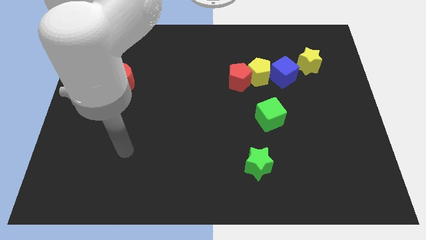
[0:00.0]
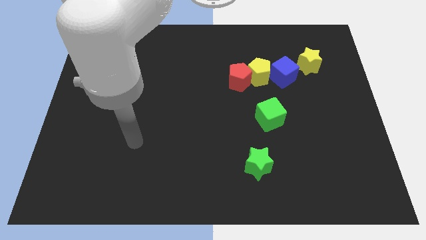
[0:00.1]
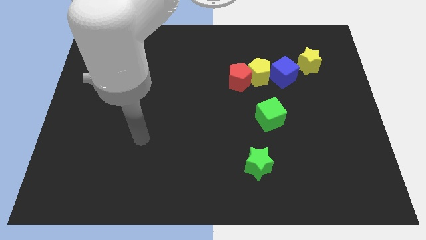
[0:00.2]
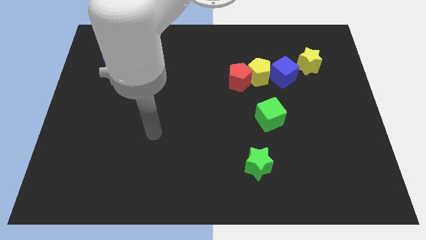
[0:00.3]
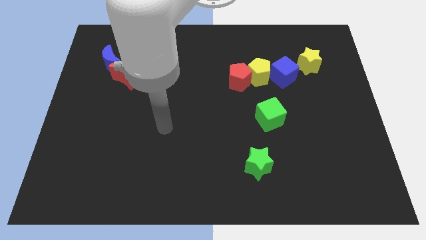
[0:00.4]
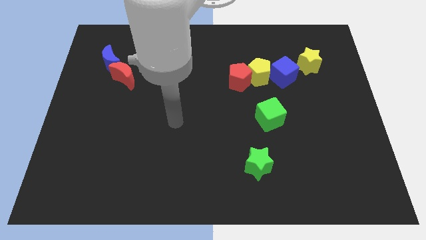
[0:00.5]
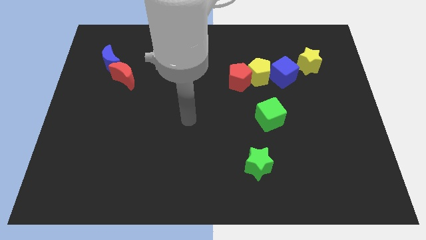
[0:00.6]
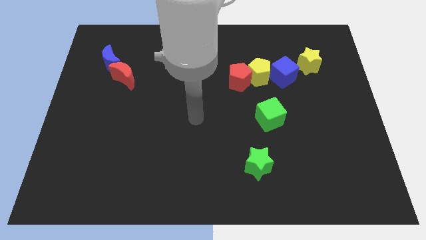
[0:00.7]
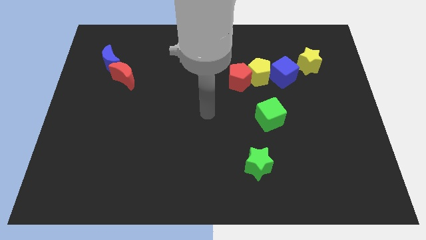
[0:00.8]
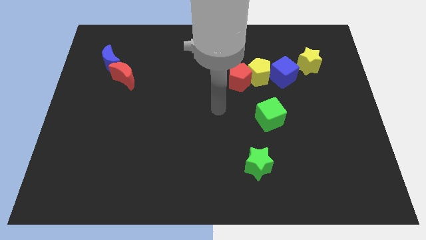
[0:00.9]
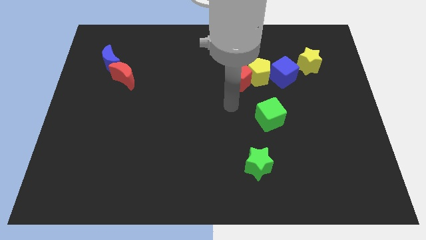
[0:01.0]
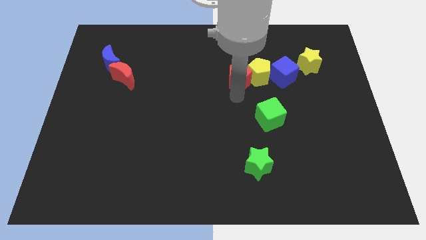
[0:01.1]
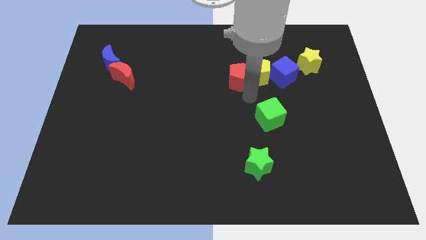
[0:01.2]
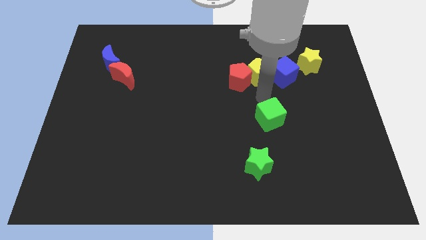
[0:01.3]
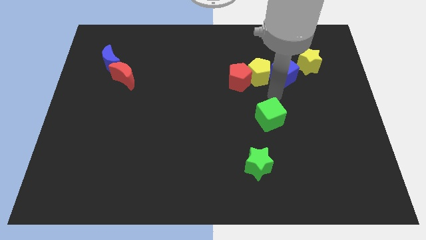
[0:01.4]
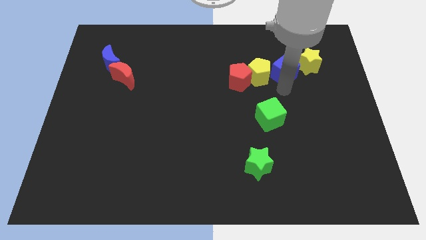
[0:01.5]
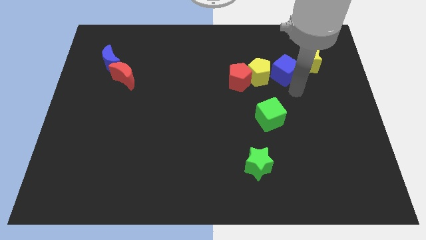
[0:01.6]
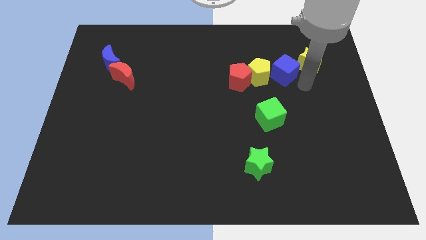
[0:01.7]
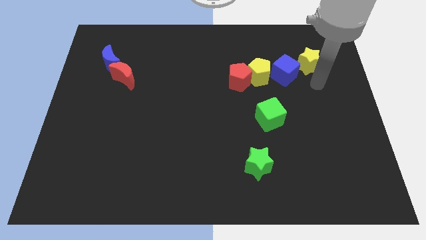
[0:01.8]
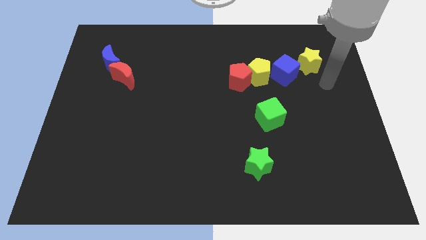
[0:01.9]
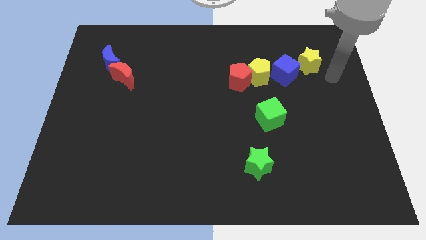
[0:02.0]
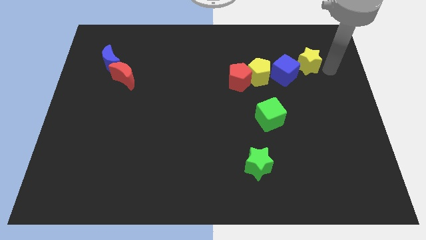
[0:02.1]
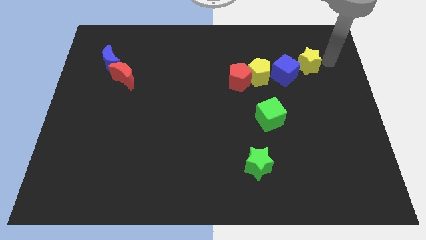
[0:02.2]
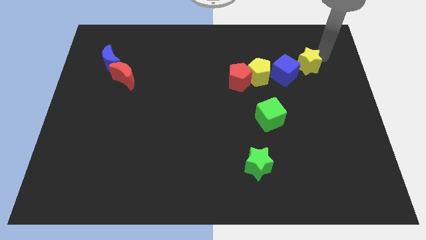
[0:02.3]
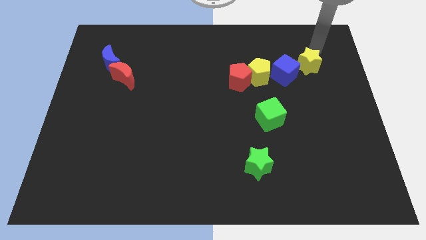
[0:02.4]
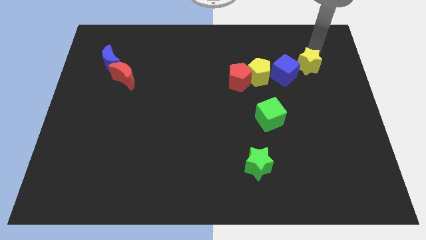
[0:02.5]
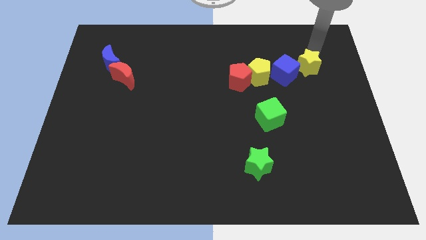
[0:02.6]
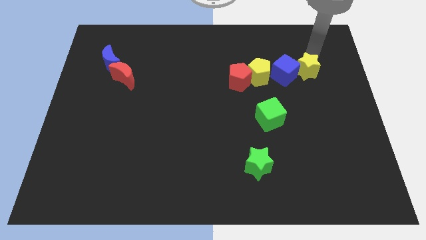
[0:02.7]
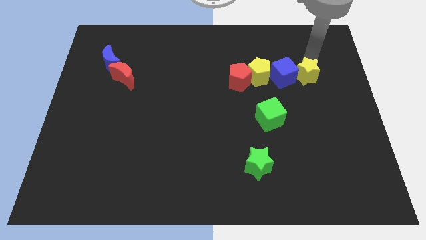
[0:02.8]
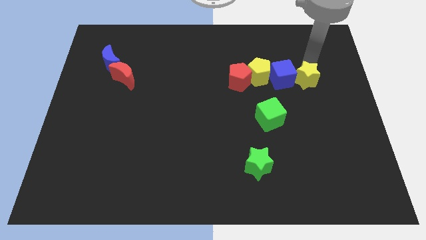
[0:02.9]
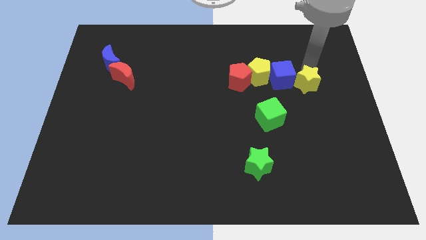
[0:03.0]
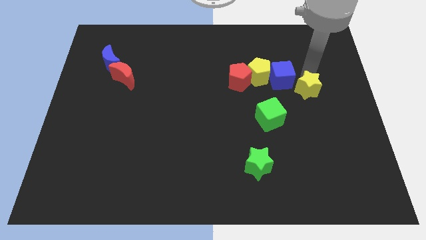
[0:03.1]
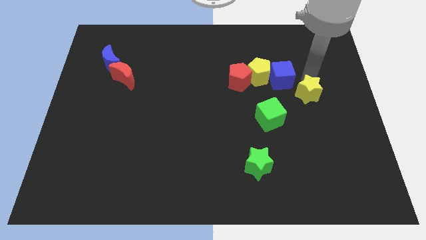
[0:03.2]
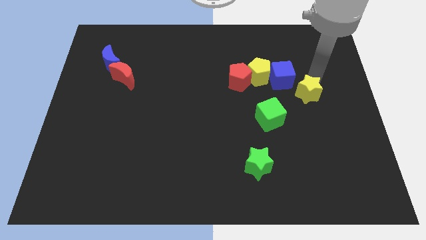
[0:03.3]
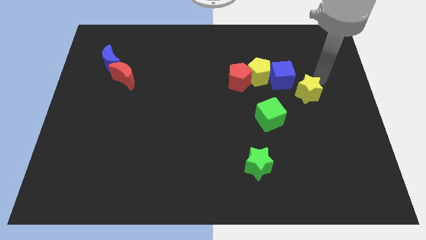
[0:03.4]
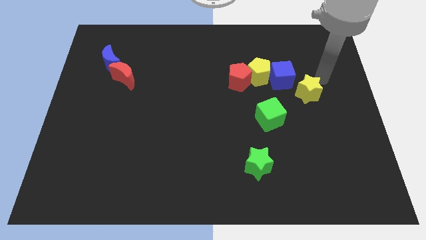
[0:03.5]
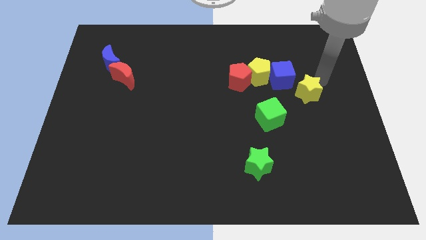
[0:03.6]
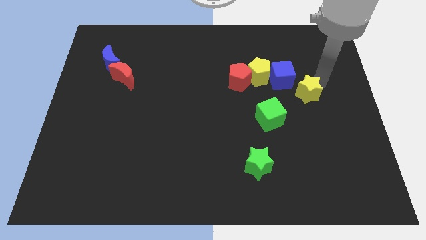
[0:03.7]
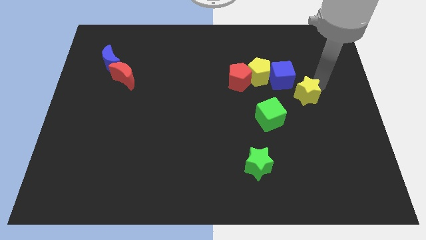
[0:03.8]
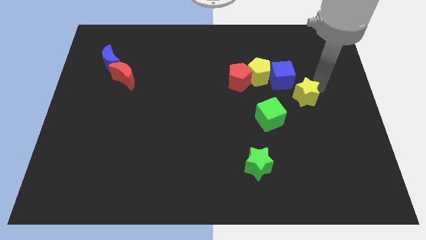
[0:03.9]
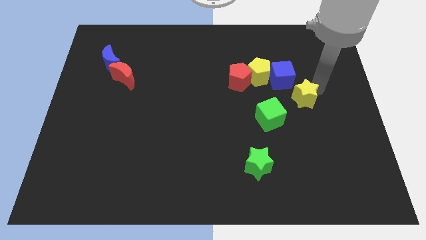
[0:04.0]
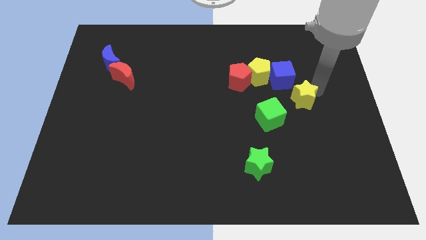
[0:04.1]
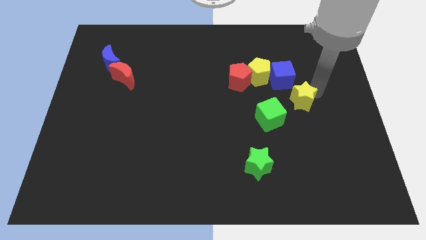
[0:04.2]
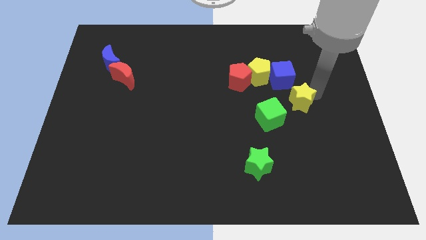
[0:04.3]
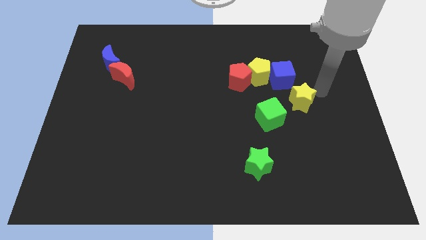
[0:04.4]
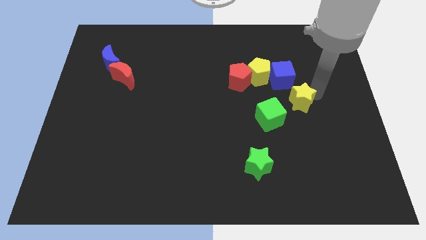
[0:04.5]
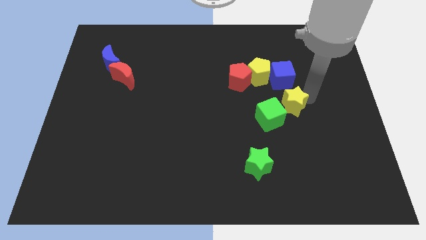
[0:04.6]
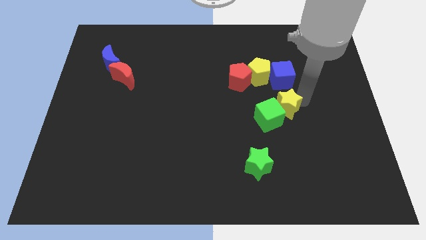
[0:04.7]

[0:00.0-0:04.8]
put the yellow star next to the green cube

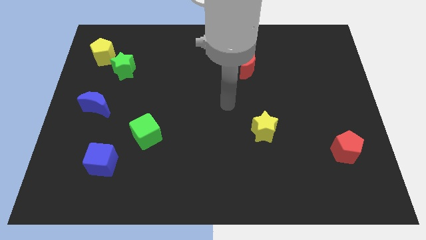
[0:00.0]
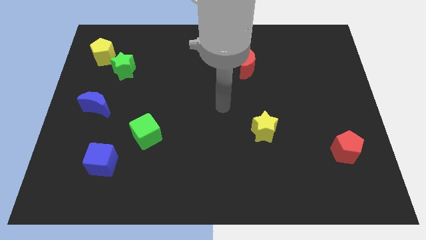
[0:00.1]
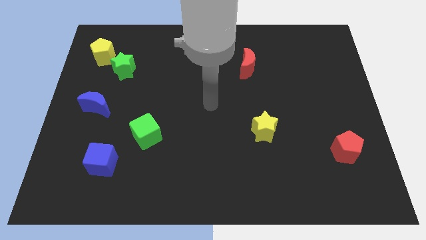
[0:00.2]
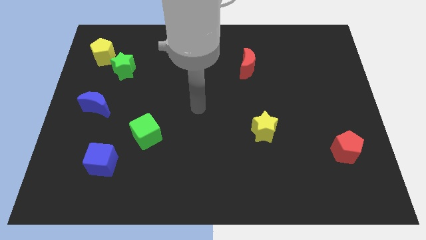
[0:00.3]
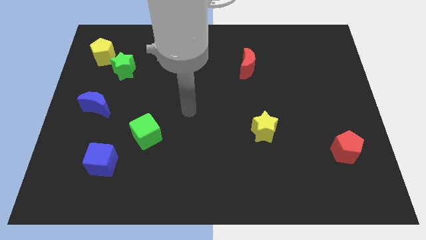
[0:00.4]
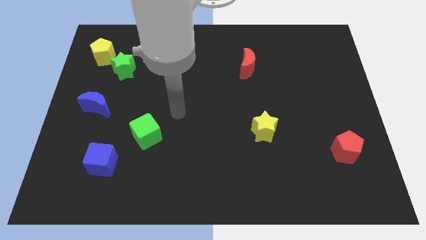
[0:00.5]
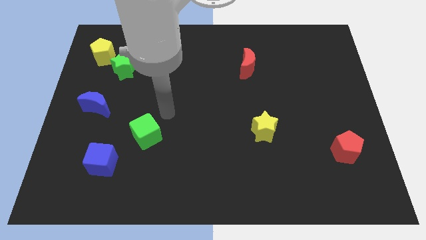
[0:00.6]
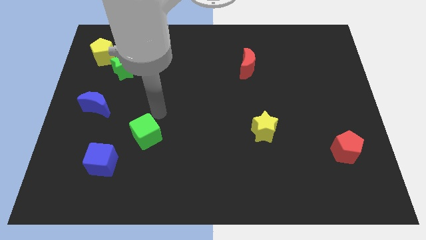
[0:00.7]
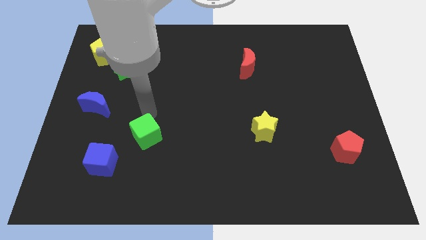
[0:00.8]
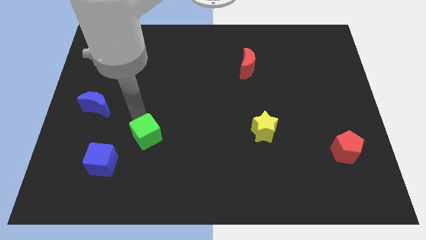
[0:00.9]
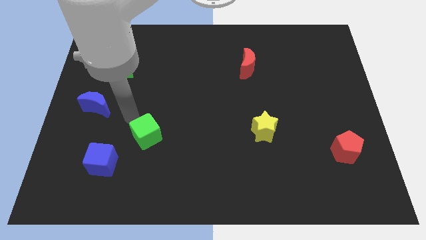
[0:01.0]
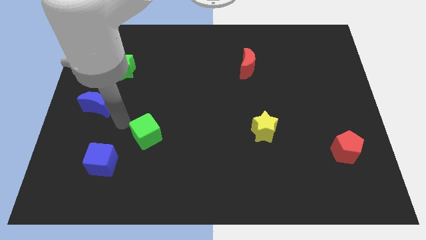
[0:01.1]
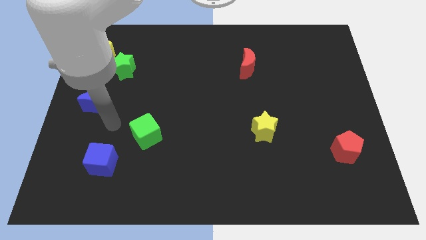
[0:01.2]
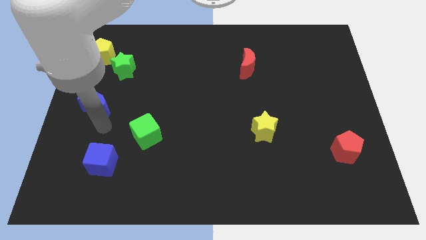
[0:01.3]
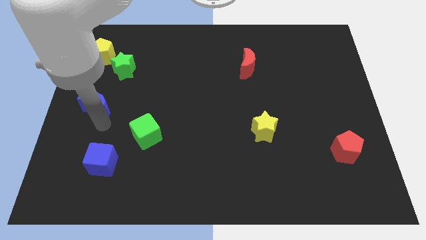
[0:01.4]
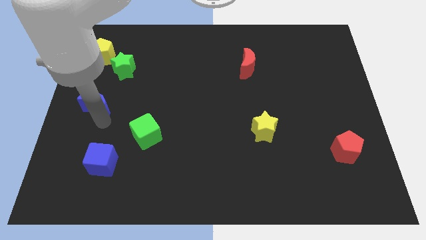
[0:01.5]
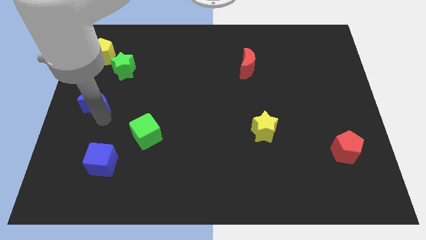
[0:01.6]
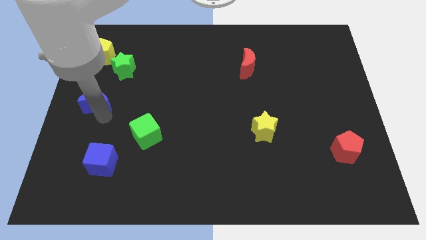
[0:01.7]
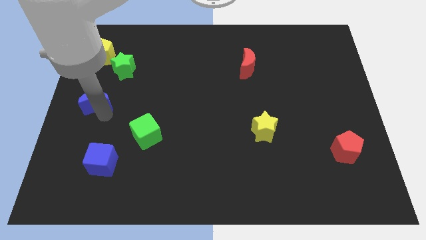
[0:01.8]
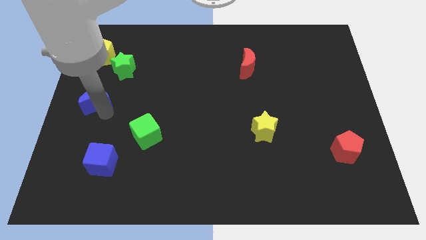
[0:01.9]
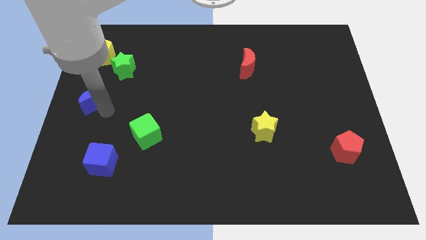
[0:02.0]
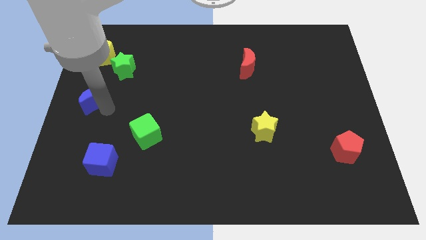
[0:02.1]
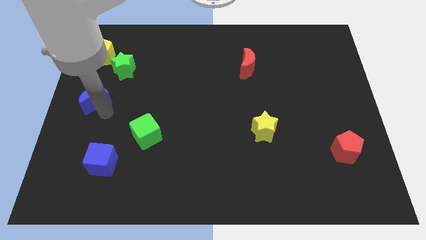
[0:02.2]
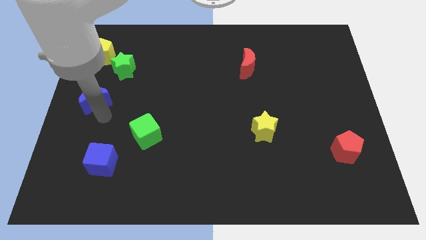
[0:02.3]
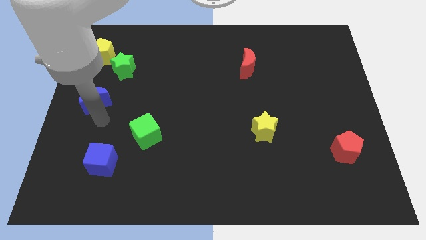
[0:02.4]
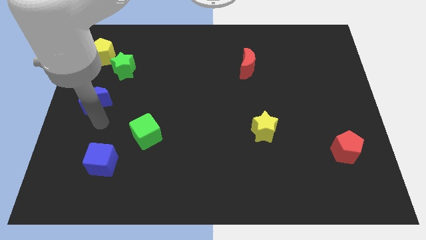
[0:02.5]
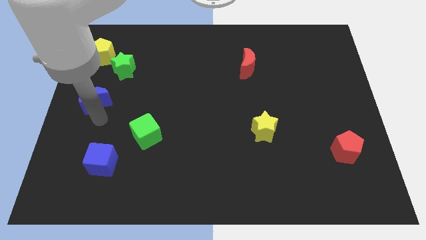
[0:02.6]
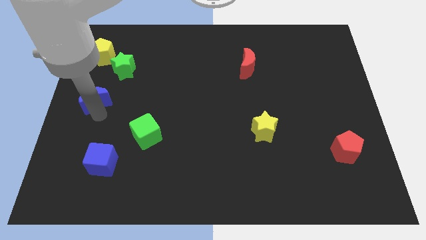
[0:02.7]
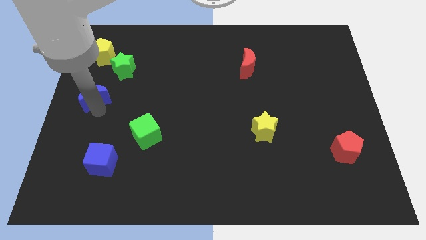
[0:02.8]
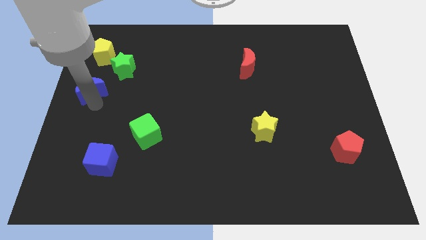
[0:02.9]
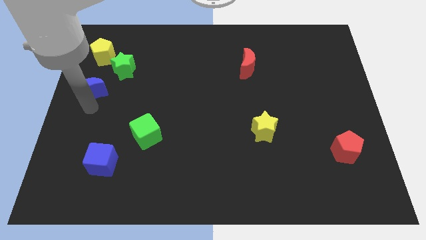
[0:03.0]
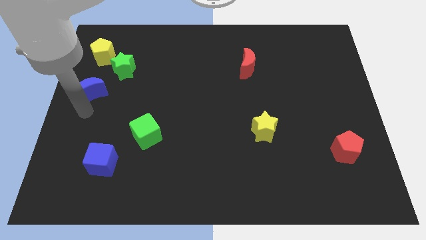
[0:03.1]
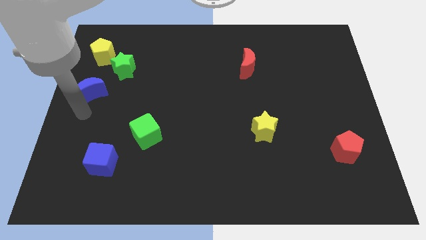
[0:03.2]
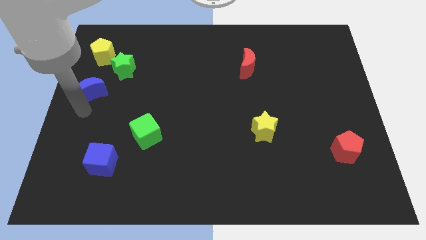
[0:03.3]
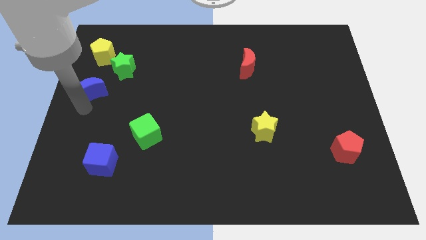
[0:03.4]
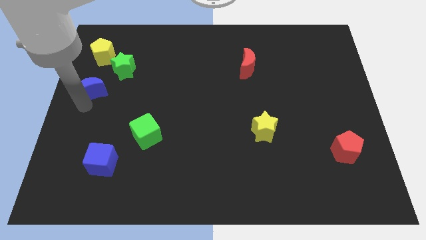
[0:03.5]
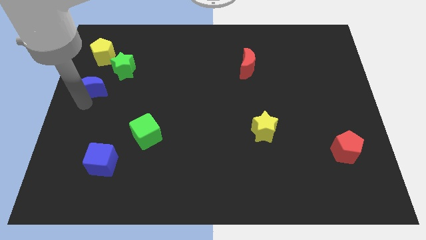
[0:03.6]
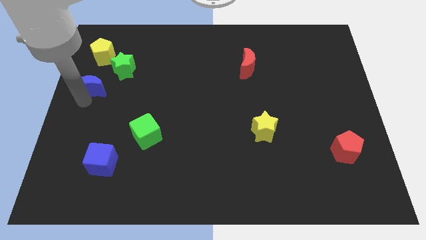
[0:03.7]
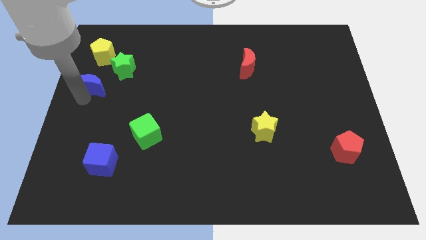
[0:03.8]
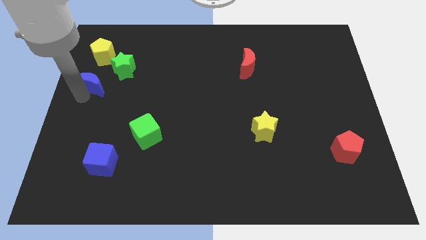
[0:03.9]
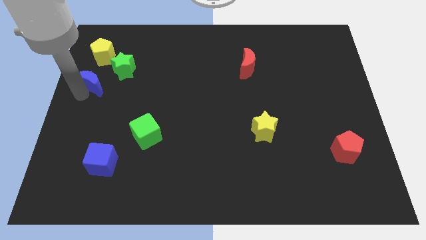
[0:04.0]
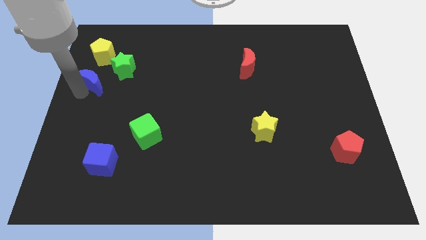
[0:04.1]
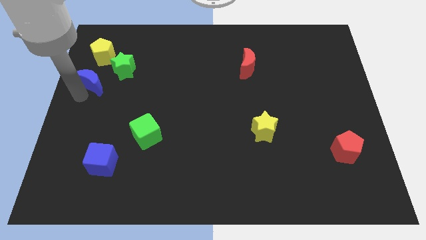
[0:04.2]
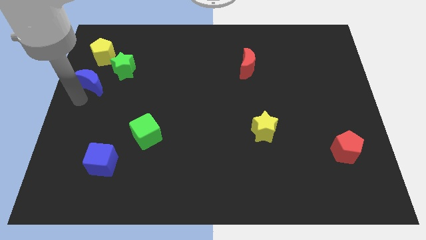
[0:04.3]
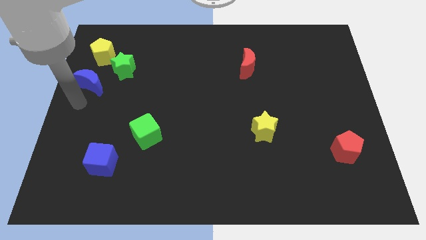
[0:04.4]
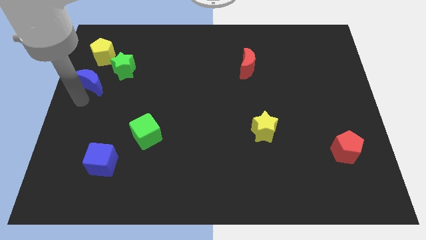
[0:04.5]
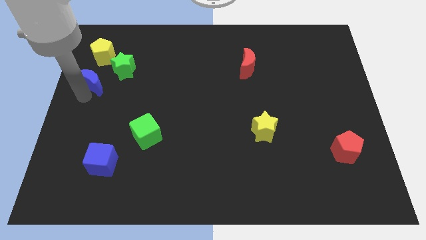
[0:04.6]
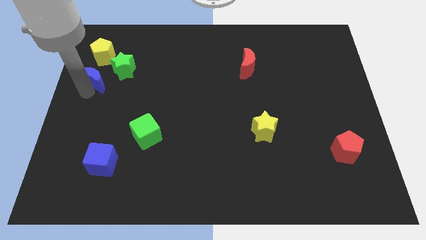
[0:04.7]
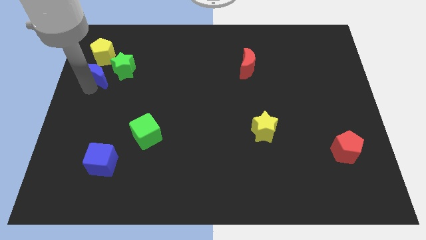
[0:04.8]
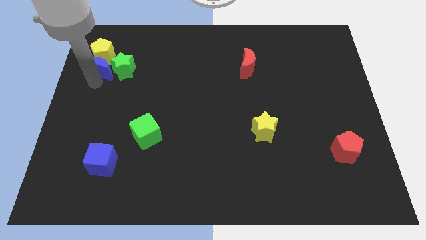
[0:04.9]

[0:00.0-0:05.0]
push the blue moon close to the yellow pentagon
